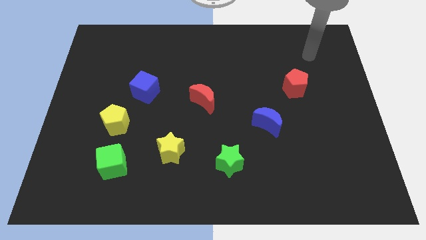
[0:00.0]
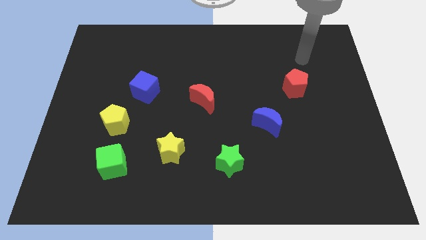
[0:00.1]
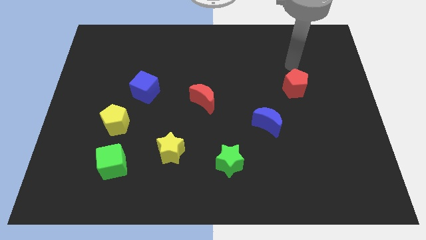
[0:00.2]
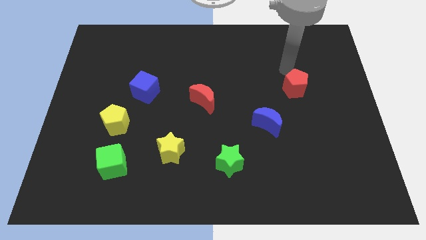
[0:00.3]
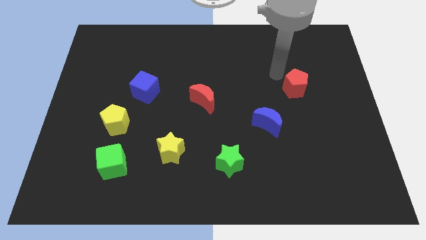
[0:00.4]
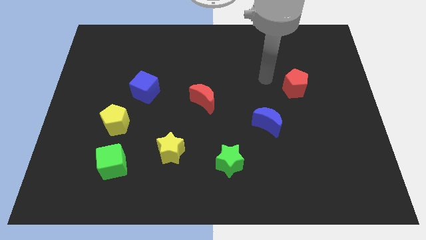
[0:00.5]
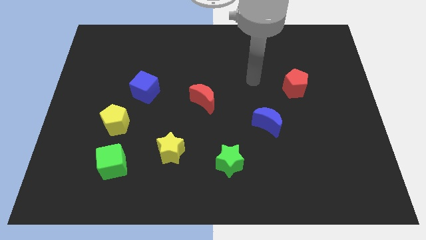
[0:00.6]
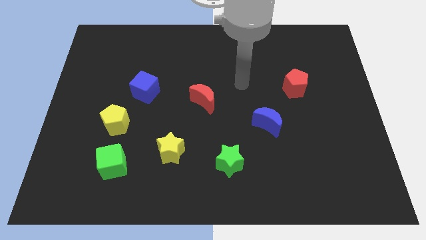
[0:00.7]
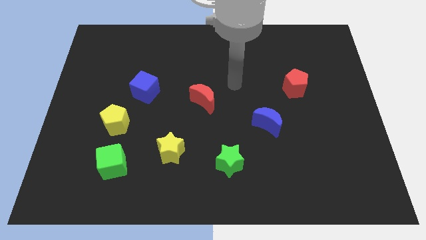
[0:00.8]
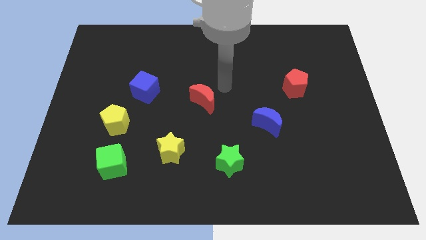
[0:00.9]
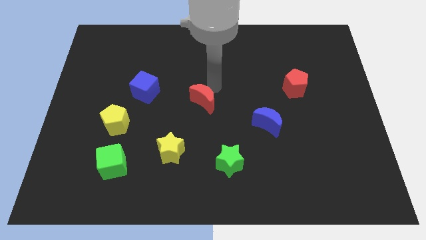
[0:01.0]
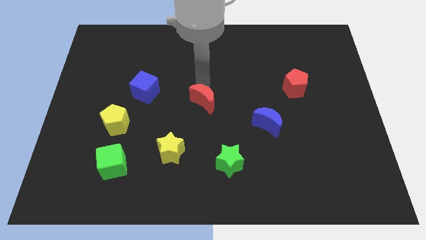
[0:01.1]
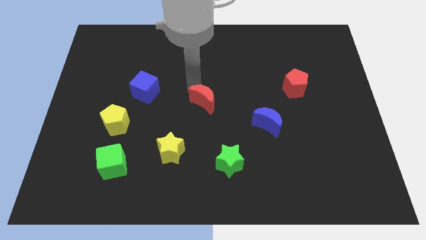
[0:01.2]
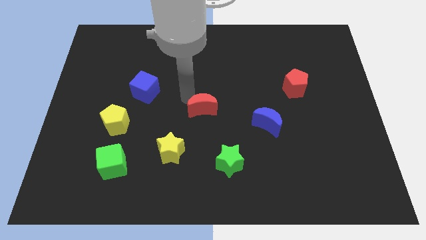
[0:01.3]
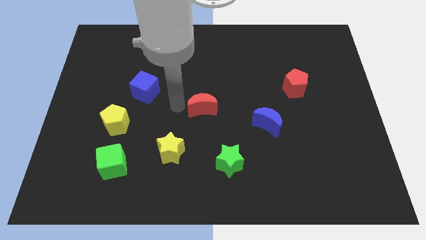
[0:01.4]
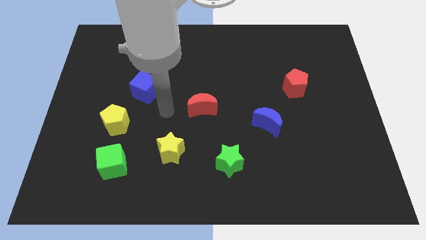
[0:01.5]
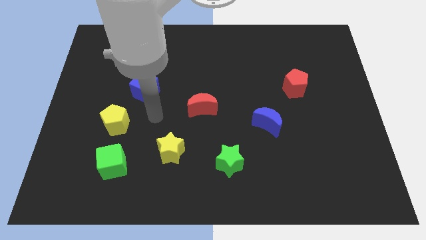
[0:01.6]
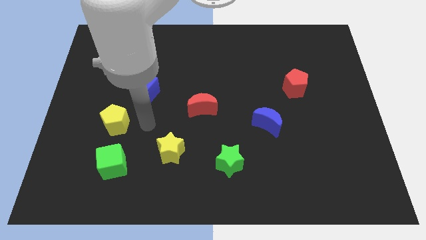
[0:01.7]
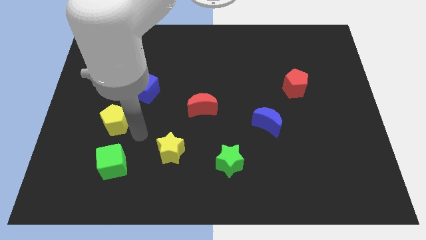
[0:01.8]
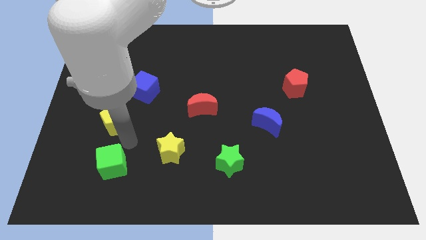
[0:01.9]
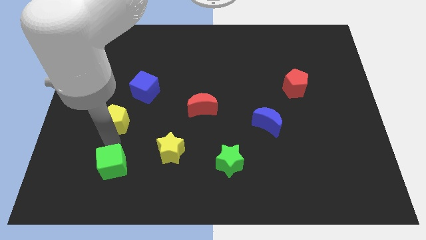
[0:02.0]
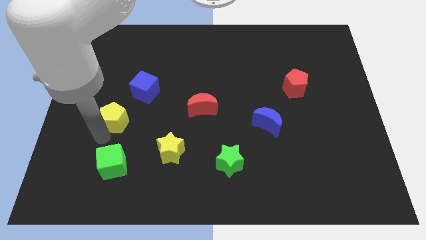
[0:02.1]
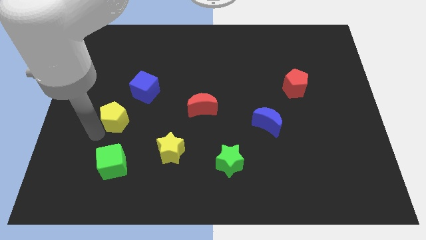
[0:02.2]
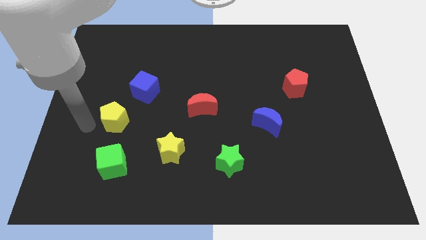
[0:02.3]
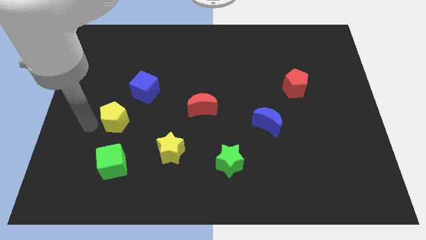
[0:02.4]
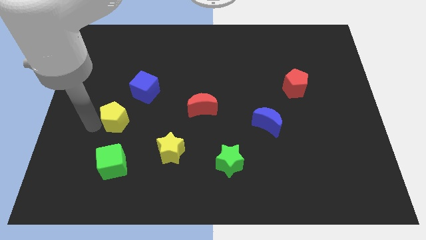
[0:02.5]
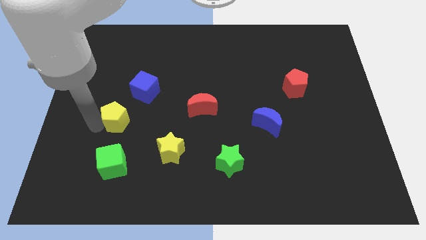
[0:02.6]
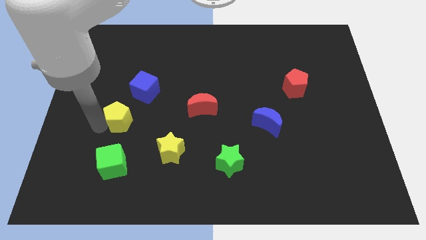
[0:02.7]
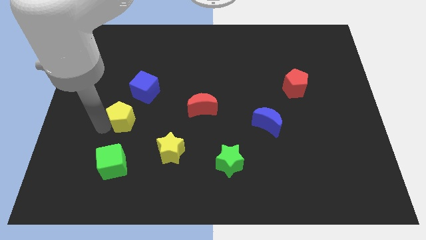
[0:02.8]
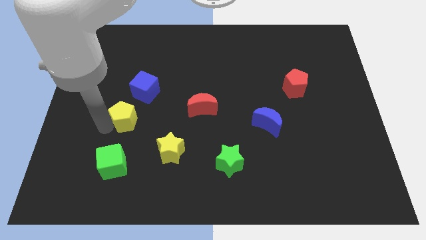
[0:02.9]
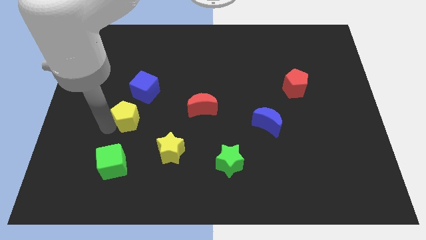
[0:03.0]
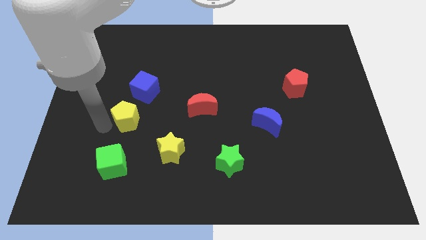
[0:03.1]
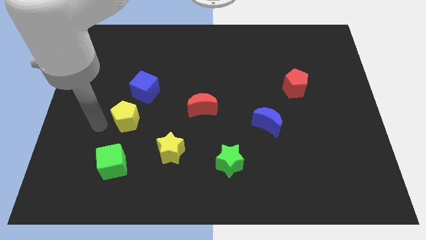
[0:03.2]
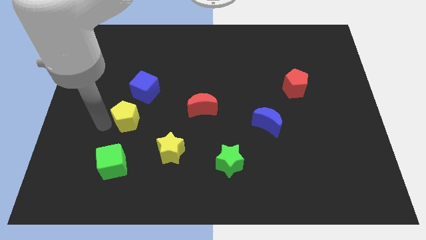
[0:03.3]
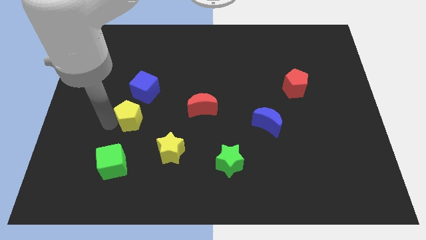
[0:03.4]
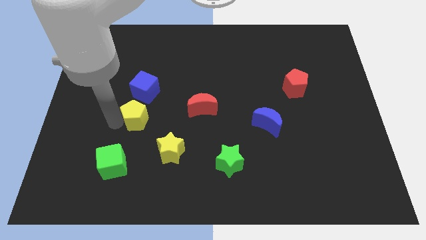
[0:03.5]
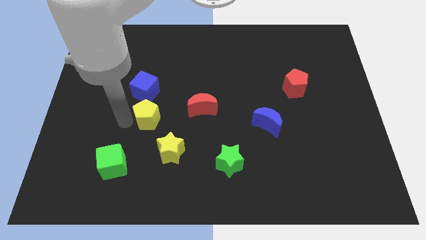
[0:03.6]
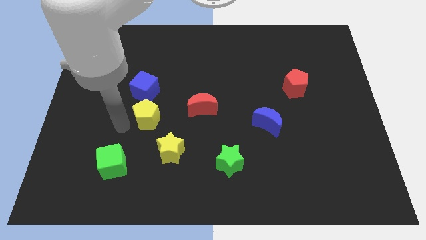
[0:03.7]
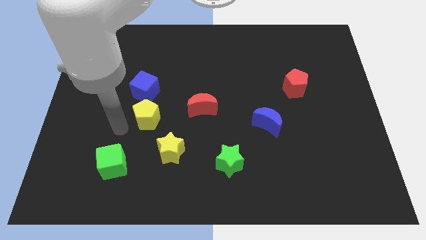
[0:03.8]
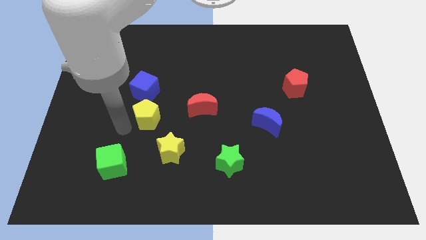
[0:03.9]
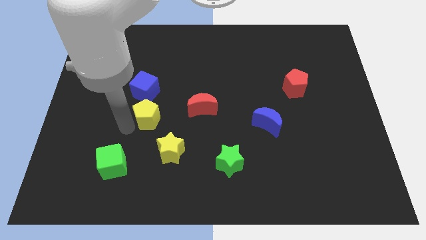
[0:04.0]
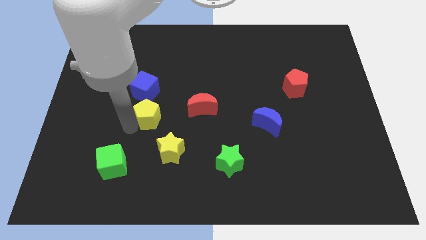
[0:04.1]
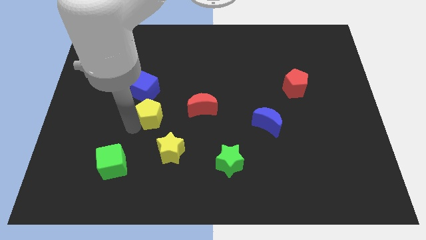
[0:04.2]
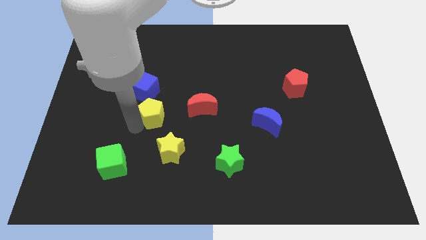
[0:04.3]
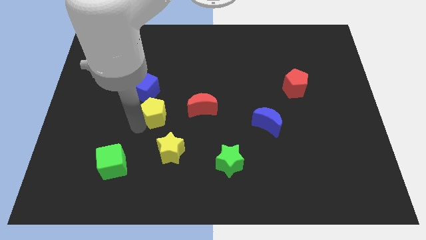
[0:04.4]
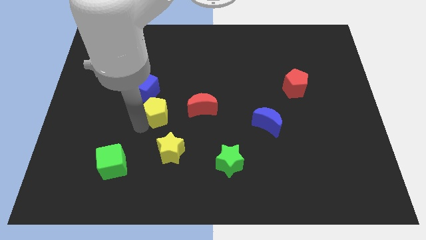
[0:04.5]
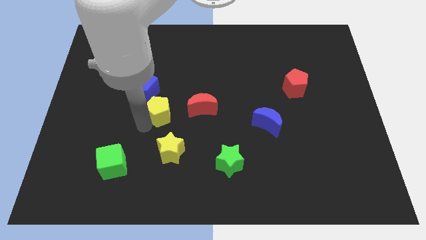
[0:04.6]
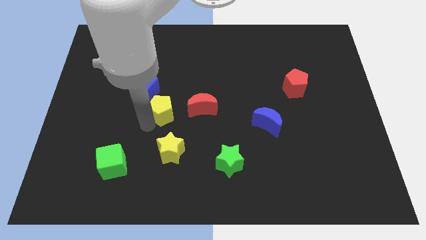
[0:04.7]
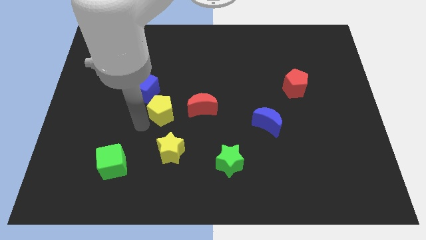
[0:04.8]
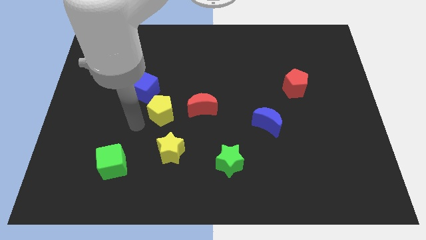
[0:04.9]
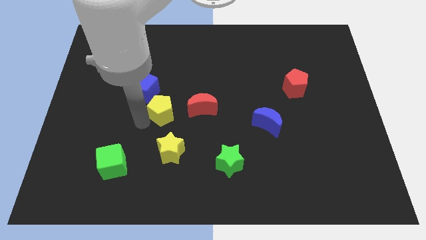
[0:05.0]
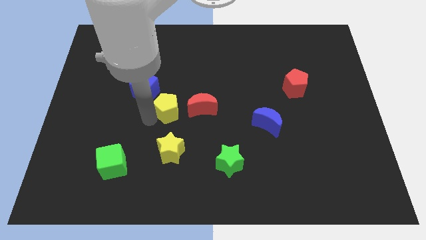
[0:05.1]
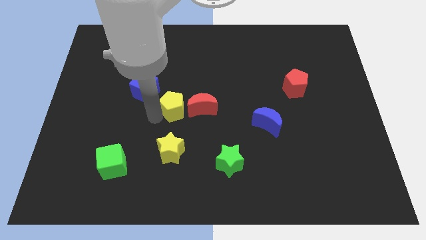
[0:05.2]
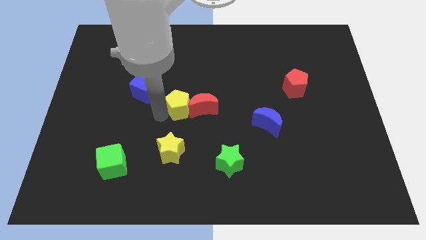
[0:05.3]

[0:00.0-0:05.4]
slide the yellow pentagon to the red moon

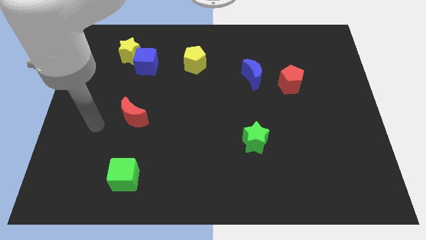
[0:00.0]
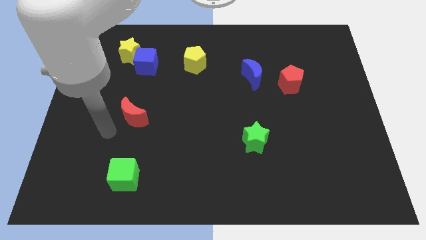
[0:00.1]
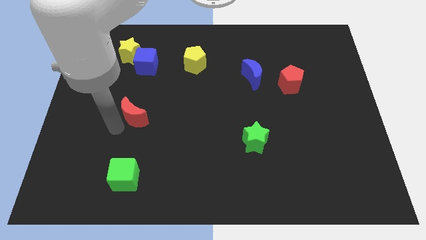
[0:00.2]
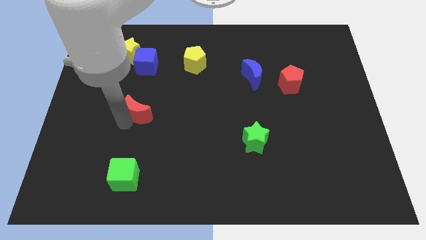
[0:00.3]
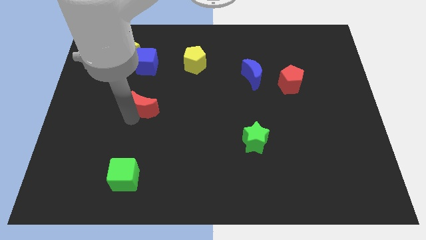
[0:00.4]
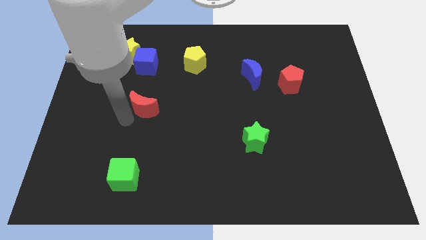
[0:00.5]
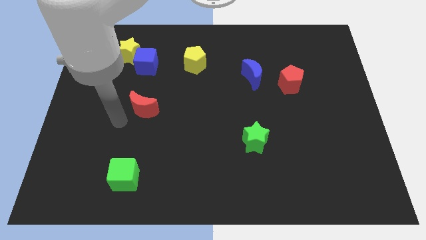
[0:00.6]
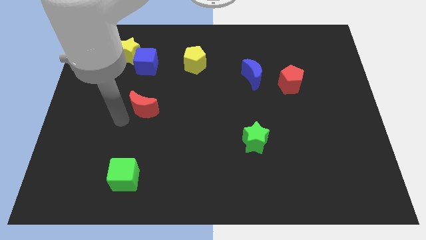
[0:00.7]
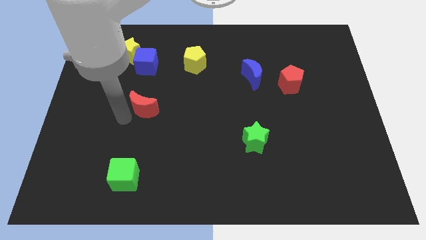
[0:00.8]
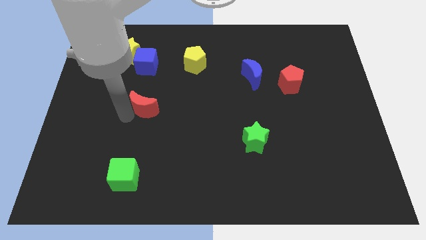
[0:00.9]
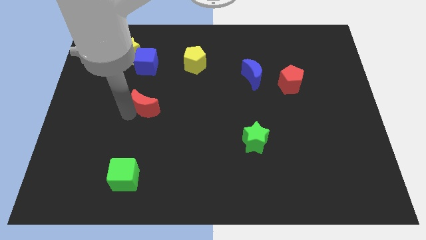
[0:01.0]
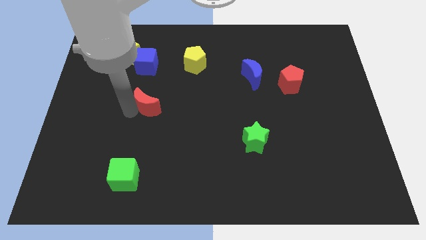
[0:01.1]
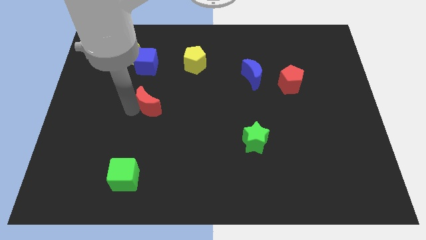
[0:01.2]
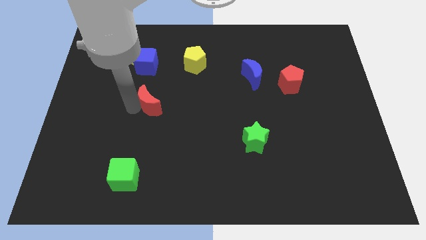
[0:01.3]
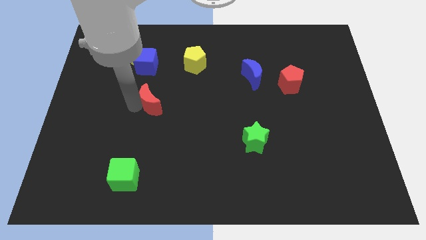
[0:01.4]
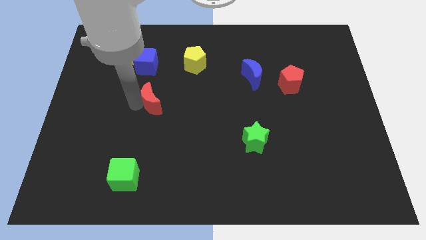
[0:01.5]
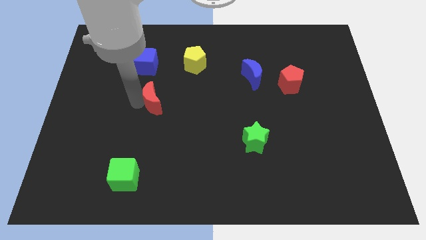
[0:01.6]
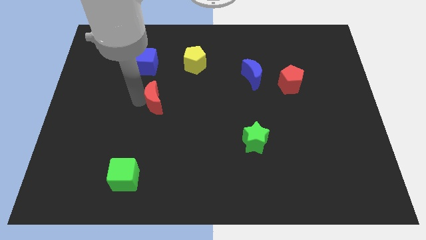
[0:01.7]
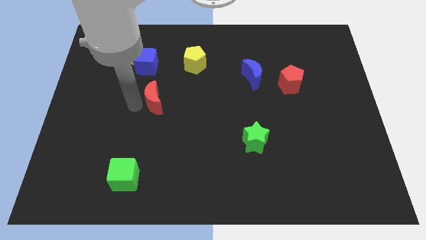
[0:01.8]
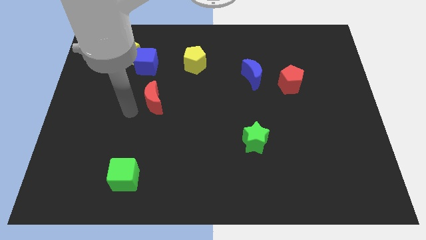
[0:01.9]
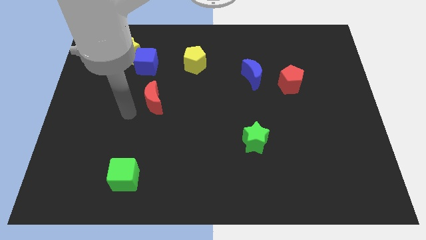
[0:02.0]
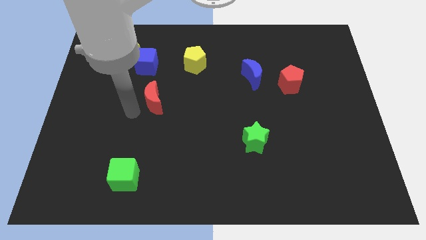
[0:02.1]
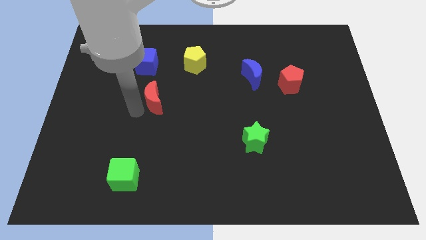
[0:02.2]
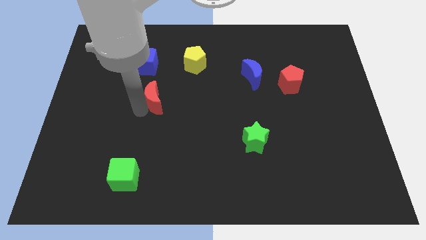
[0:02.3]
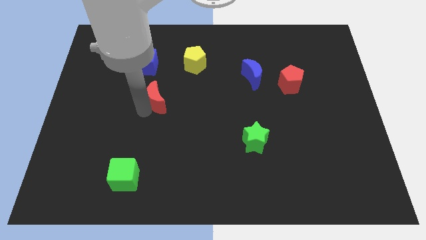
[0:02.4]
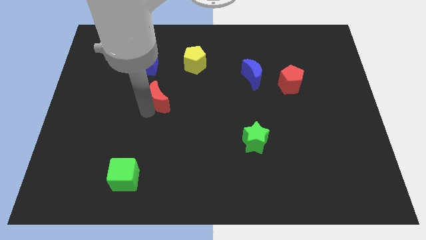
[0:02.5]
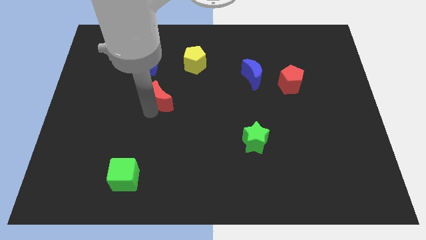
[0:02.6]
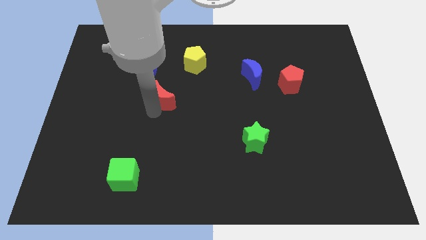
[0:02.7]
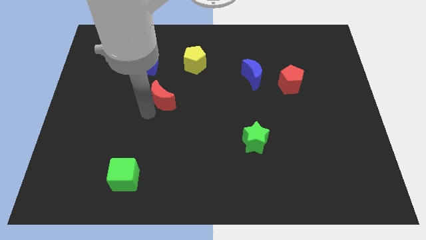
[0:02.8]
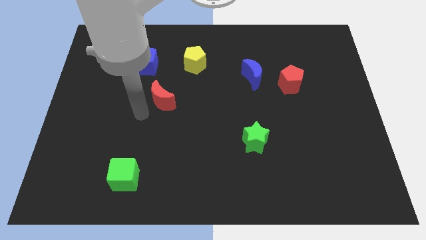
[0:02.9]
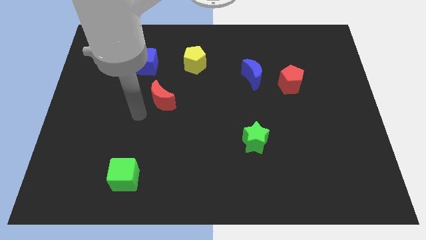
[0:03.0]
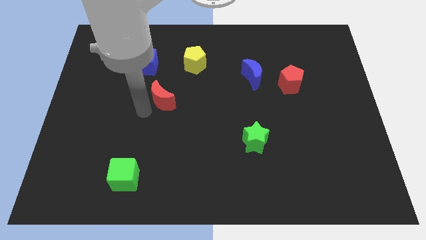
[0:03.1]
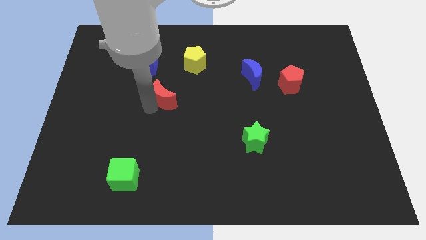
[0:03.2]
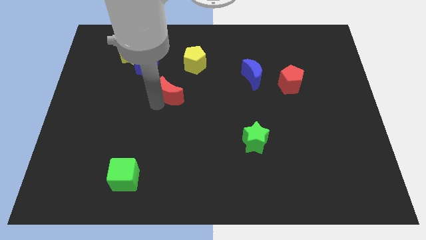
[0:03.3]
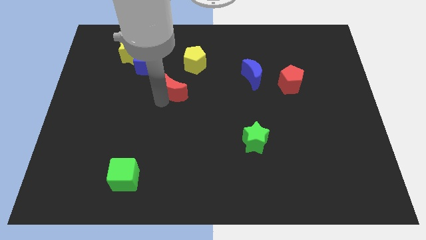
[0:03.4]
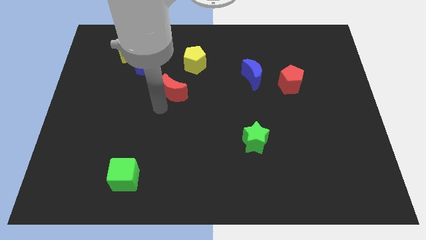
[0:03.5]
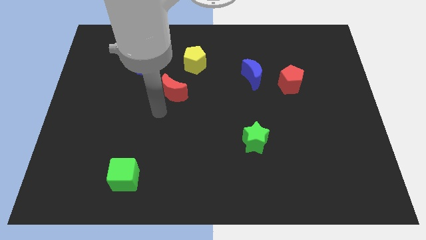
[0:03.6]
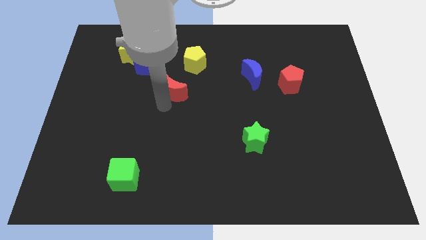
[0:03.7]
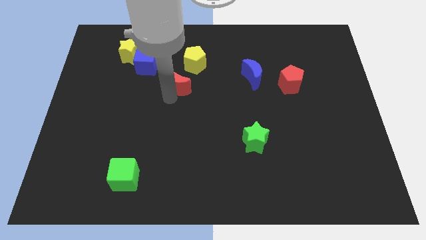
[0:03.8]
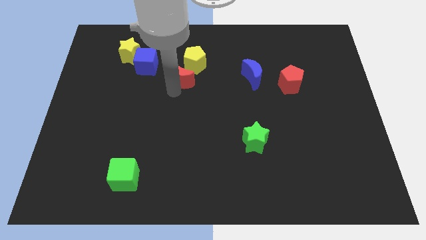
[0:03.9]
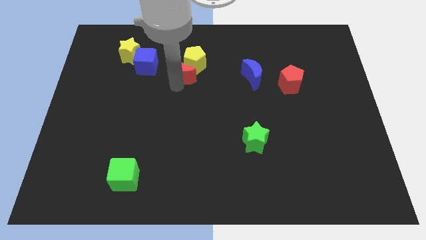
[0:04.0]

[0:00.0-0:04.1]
slide the red moon towards the yellow pentagon
